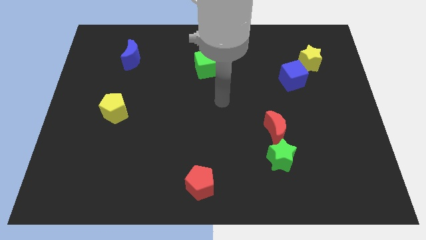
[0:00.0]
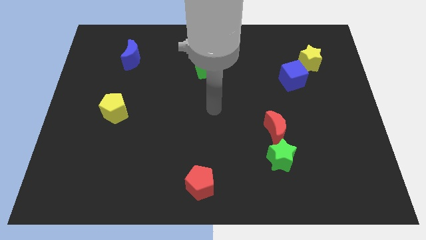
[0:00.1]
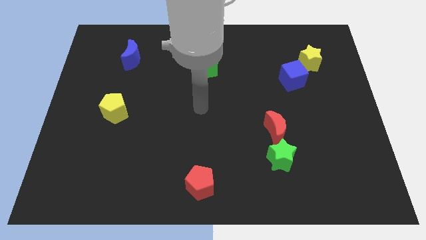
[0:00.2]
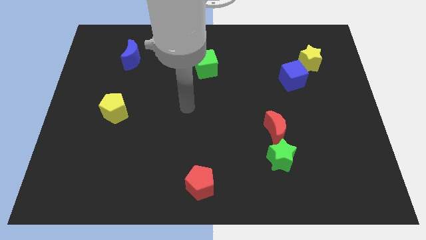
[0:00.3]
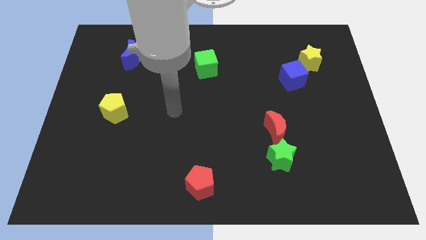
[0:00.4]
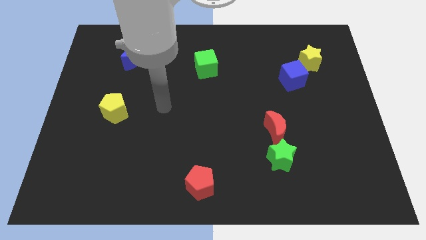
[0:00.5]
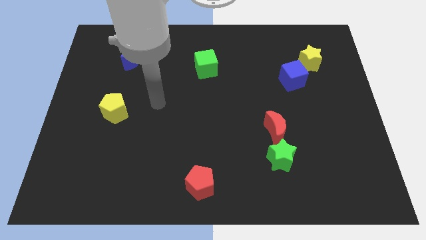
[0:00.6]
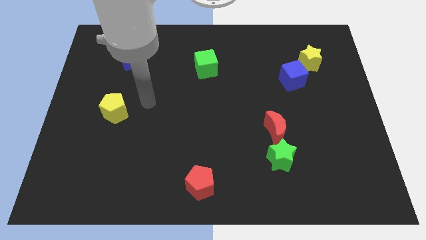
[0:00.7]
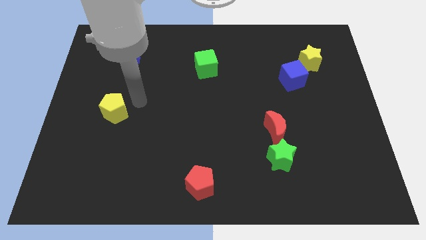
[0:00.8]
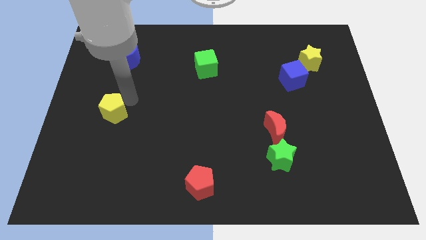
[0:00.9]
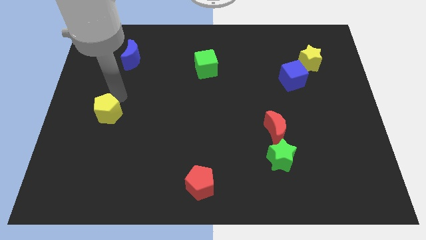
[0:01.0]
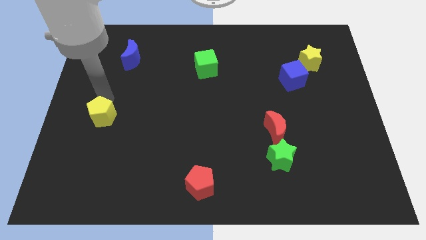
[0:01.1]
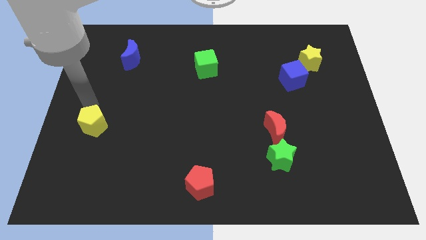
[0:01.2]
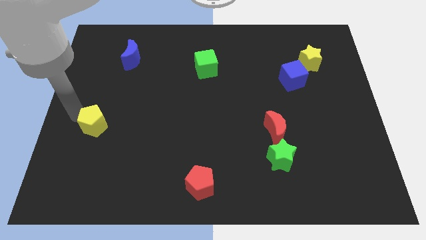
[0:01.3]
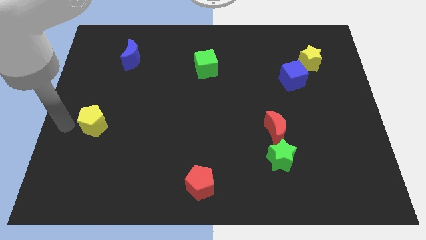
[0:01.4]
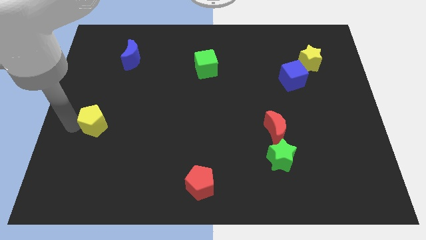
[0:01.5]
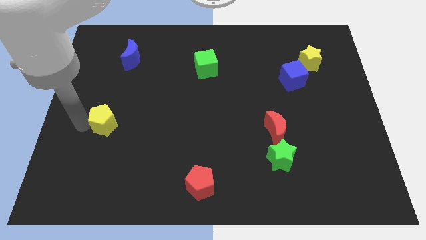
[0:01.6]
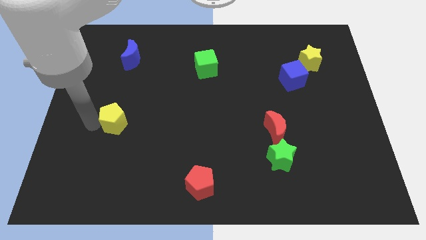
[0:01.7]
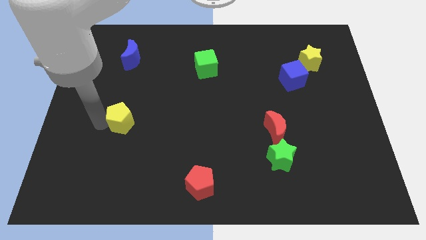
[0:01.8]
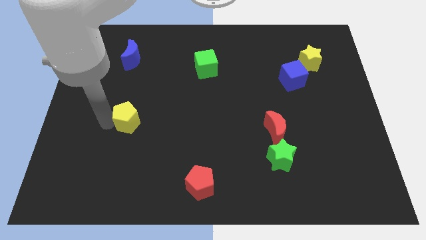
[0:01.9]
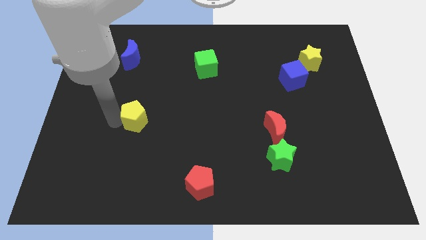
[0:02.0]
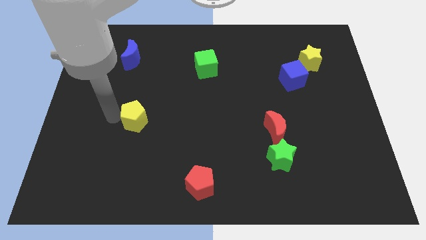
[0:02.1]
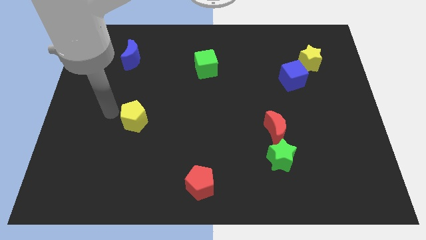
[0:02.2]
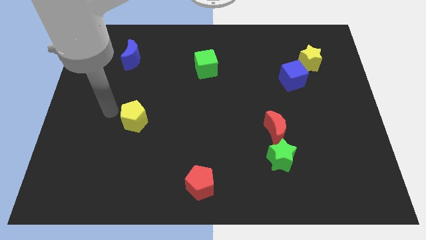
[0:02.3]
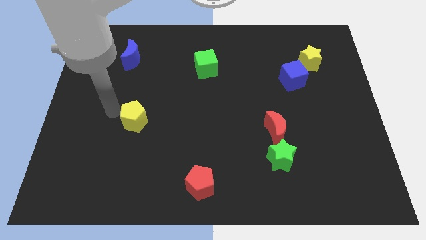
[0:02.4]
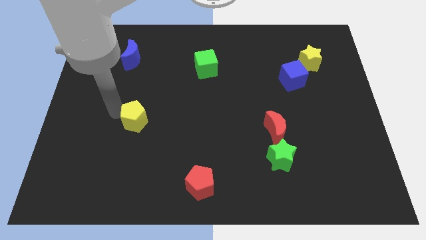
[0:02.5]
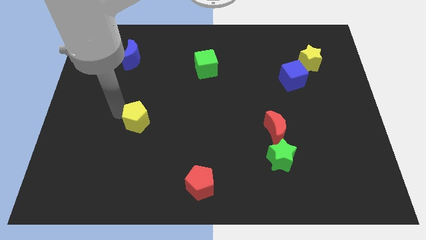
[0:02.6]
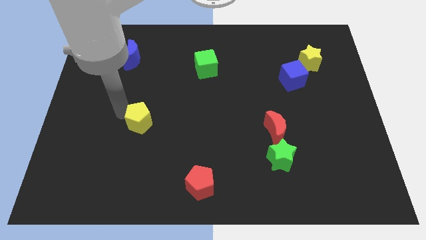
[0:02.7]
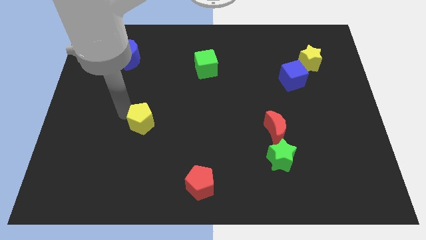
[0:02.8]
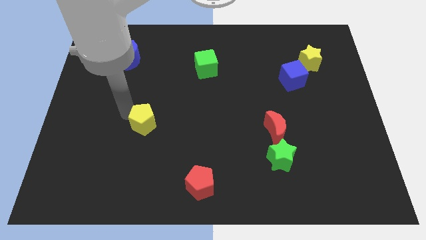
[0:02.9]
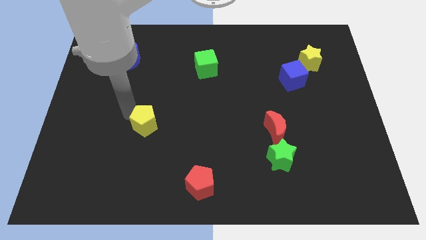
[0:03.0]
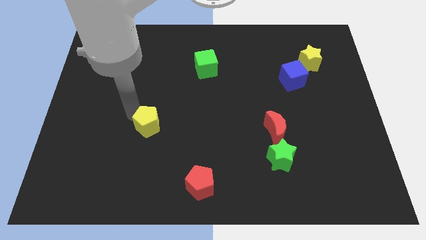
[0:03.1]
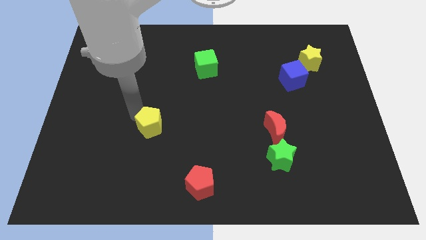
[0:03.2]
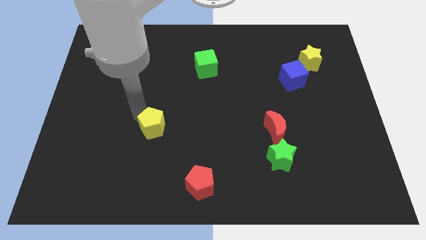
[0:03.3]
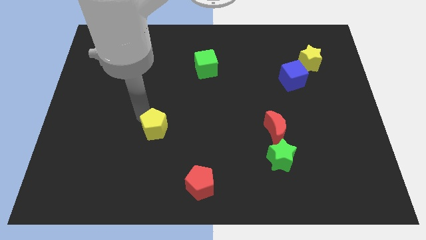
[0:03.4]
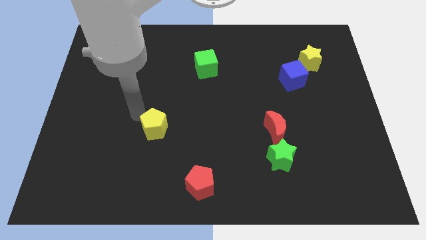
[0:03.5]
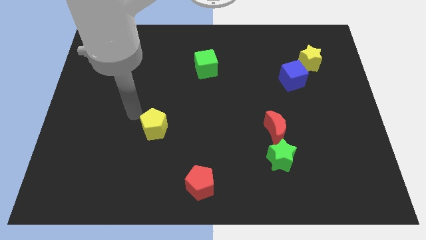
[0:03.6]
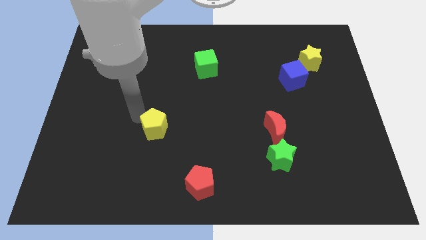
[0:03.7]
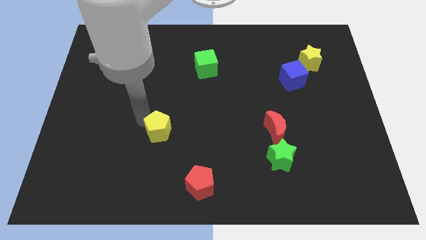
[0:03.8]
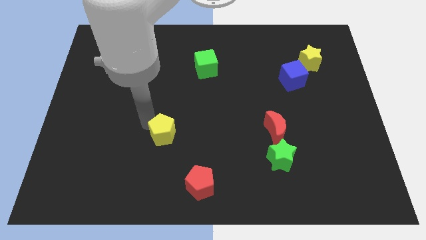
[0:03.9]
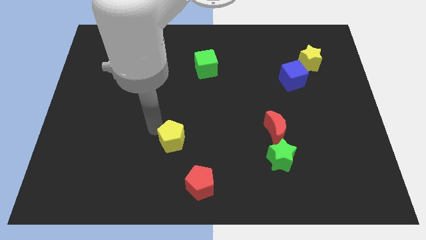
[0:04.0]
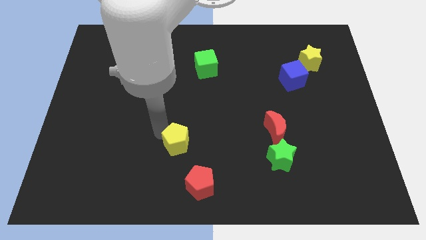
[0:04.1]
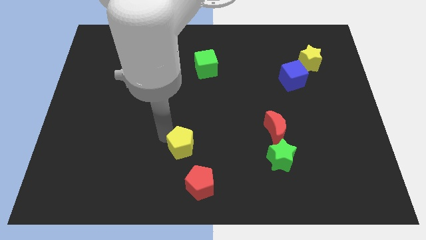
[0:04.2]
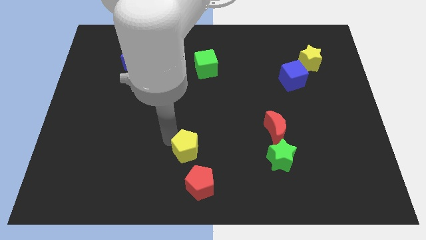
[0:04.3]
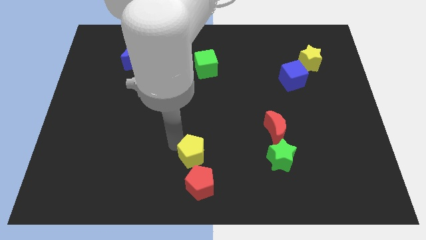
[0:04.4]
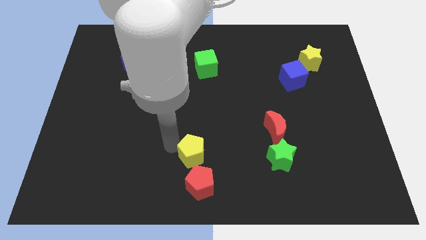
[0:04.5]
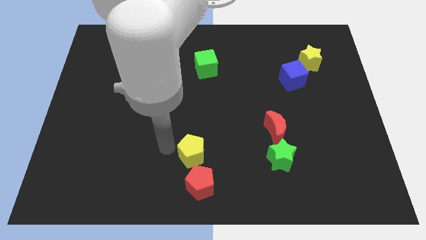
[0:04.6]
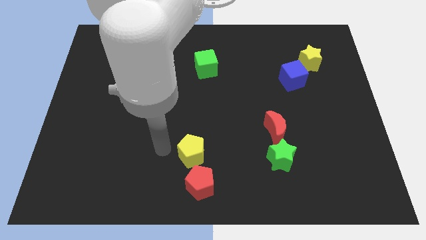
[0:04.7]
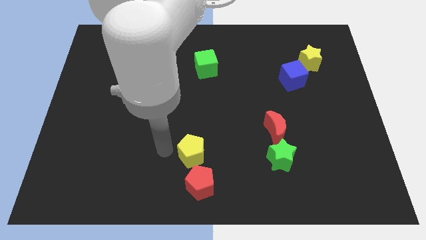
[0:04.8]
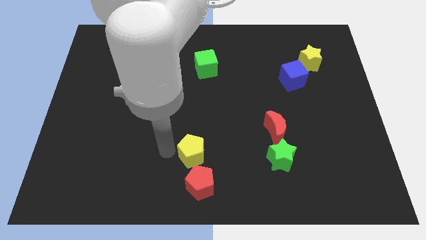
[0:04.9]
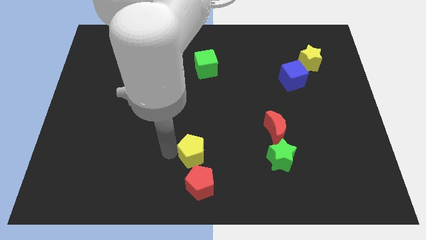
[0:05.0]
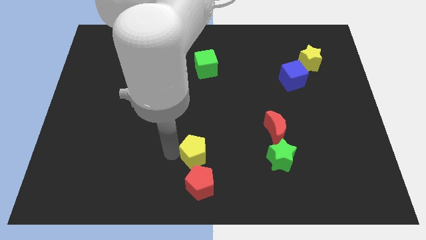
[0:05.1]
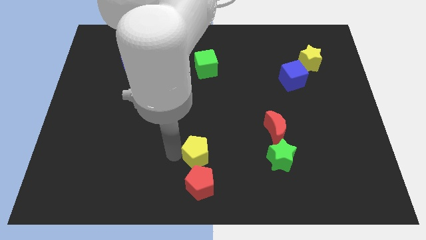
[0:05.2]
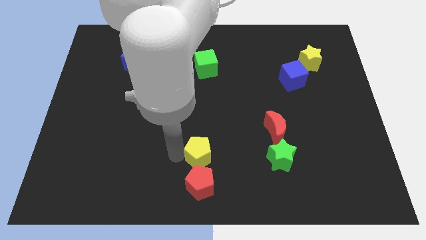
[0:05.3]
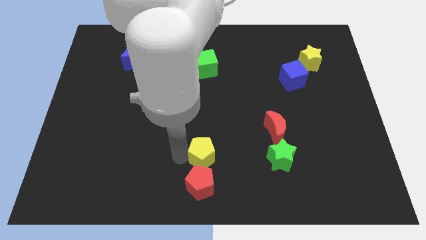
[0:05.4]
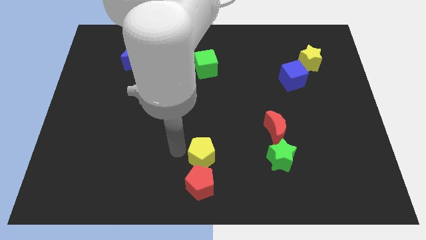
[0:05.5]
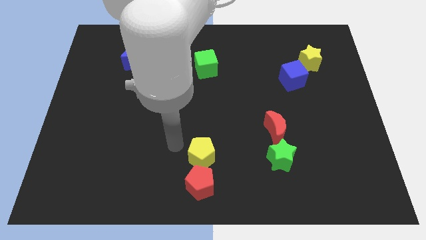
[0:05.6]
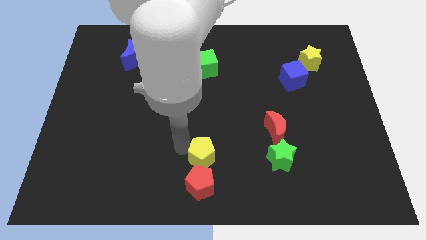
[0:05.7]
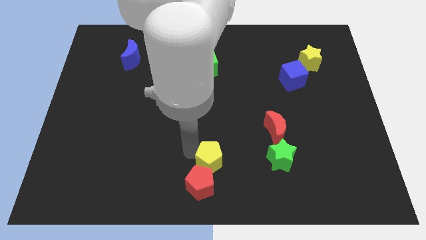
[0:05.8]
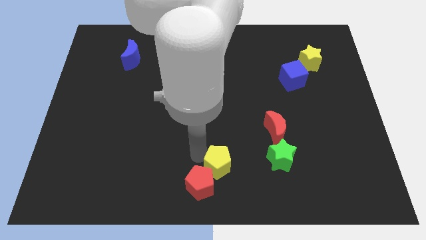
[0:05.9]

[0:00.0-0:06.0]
move the yellow pentagon to the right side of the red pentagon

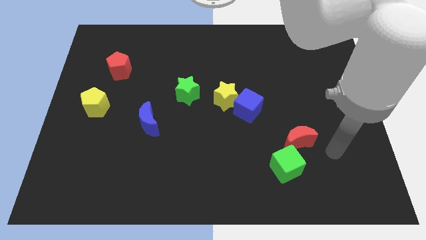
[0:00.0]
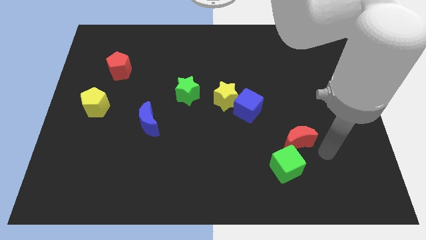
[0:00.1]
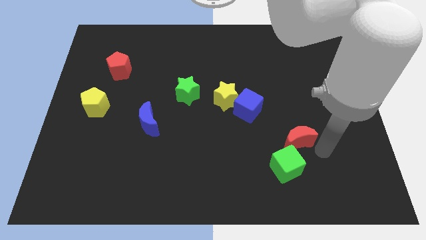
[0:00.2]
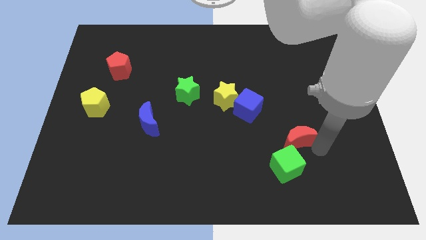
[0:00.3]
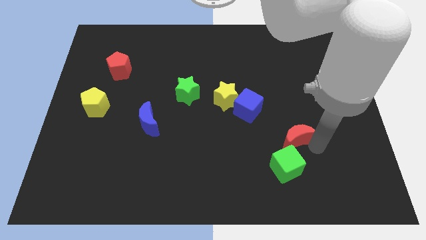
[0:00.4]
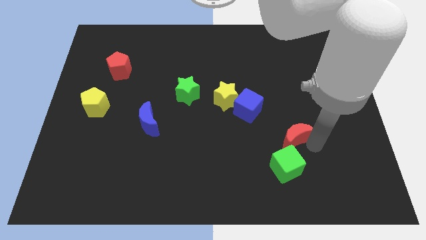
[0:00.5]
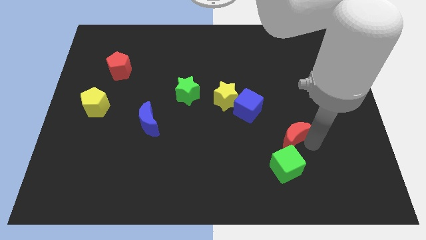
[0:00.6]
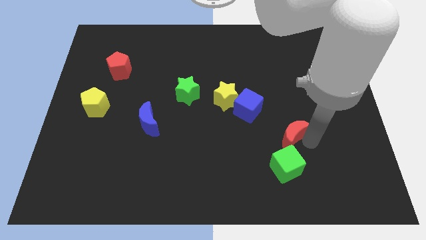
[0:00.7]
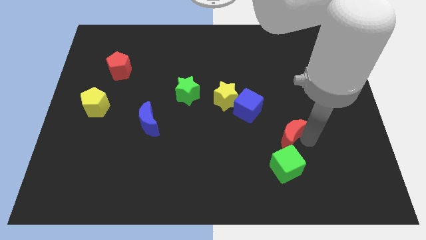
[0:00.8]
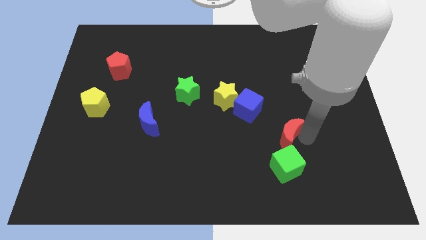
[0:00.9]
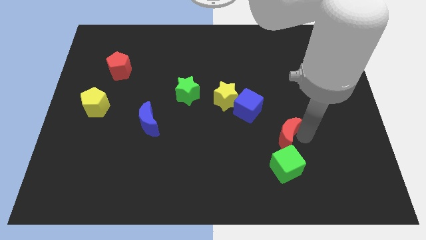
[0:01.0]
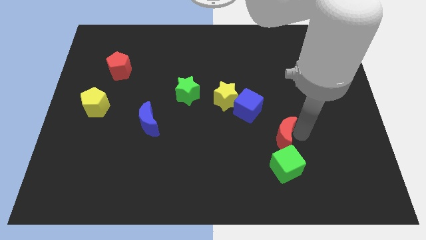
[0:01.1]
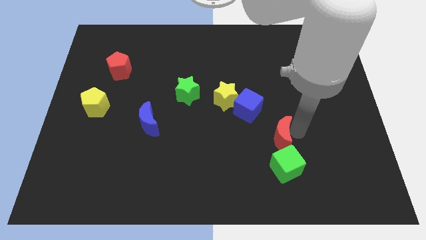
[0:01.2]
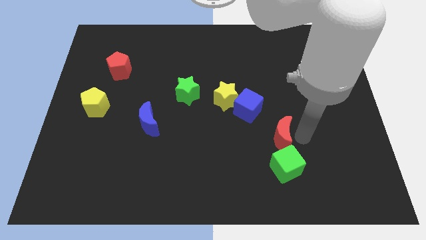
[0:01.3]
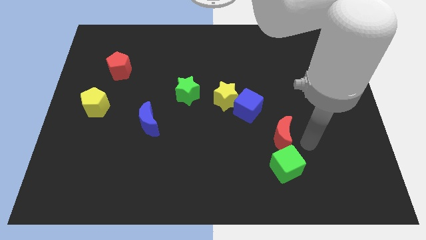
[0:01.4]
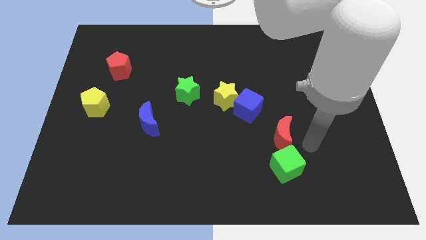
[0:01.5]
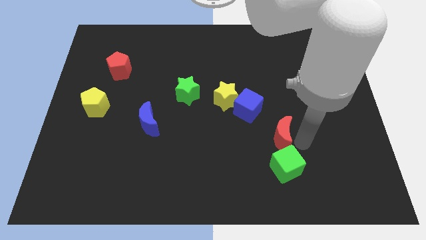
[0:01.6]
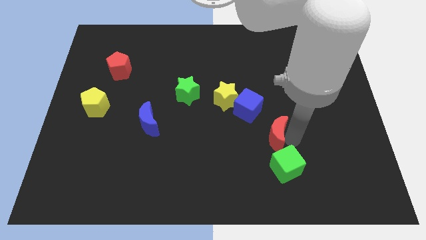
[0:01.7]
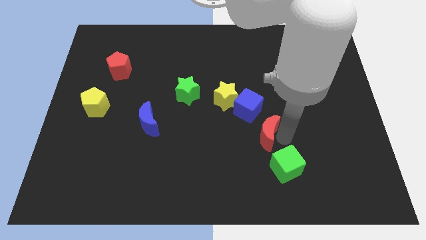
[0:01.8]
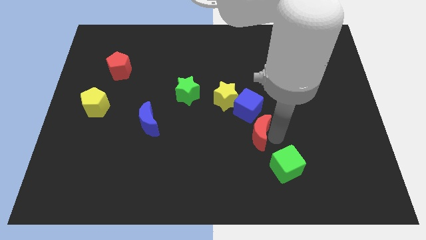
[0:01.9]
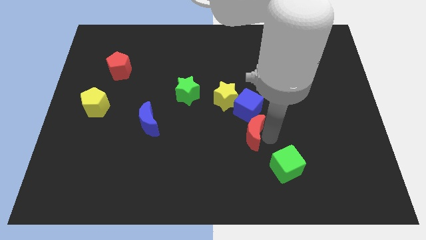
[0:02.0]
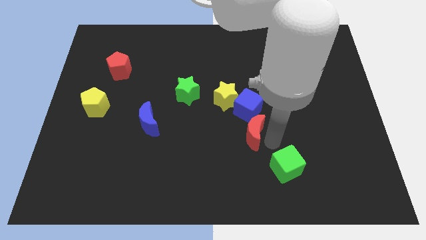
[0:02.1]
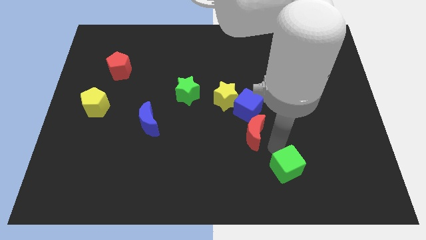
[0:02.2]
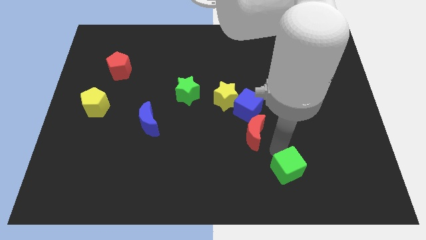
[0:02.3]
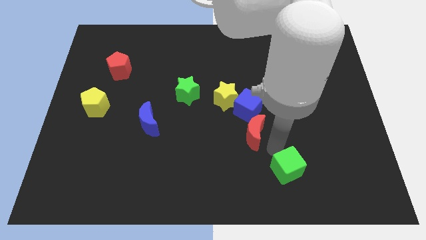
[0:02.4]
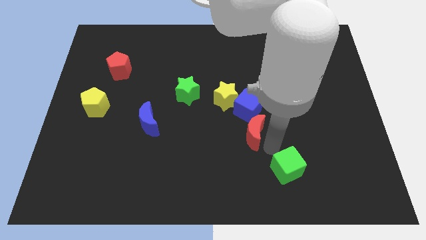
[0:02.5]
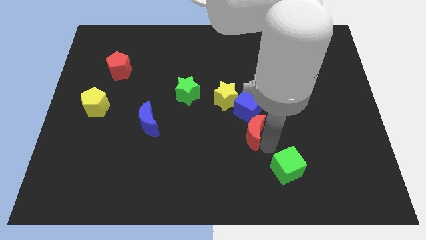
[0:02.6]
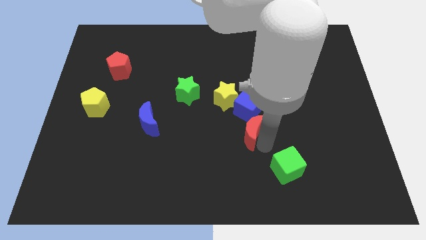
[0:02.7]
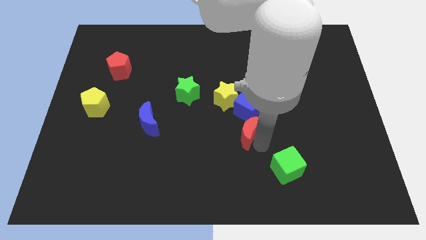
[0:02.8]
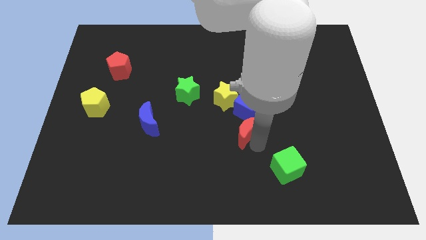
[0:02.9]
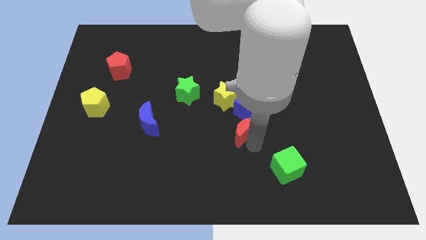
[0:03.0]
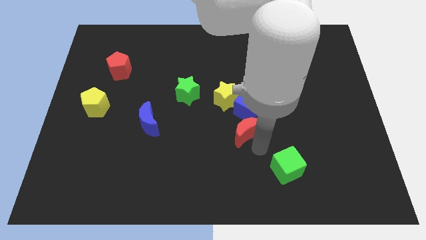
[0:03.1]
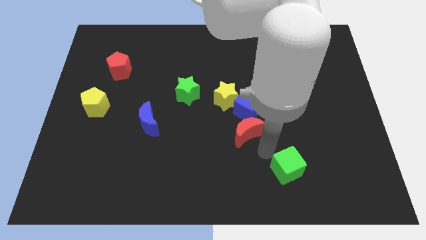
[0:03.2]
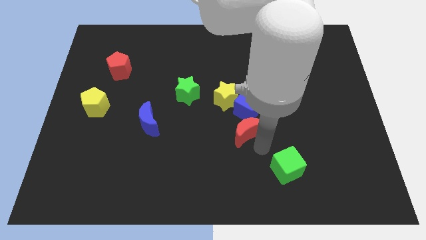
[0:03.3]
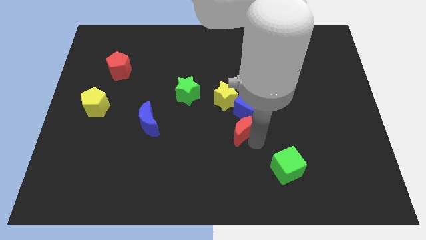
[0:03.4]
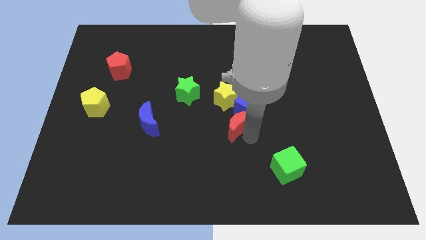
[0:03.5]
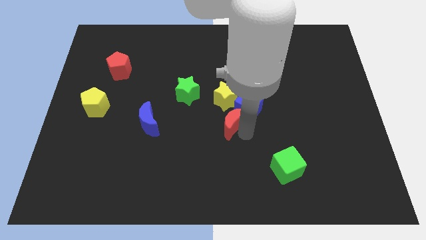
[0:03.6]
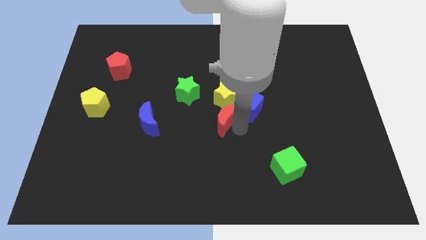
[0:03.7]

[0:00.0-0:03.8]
put the red moon diagonally down and to the right of the green star
